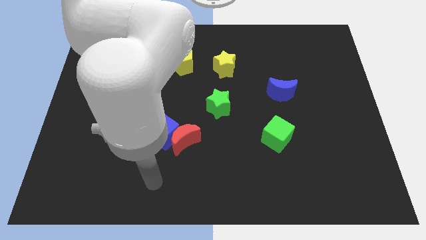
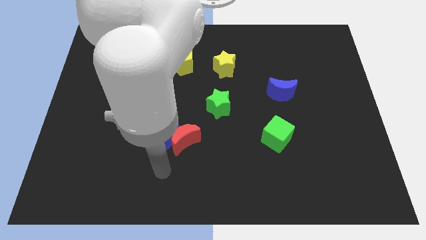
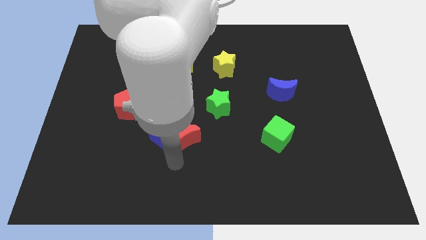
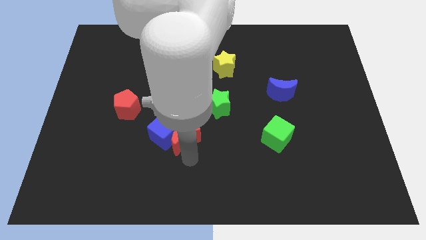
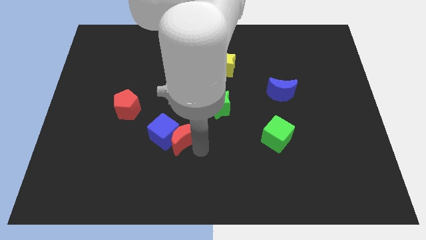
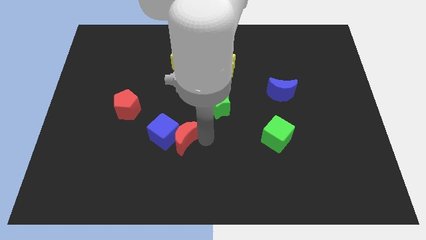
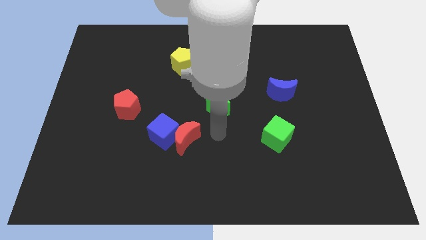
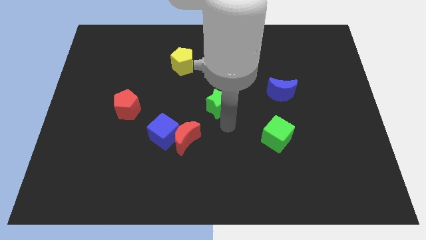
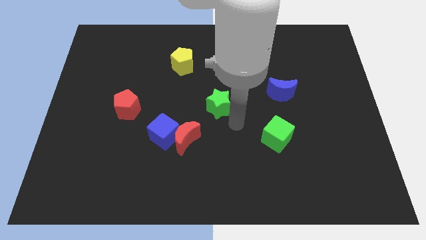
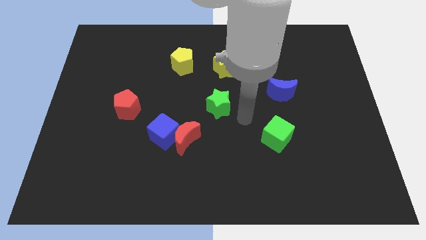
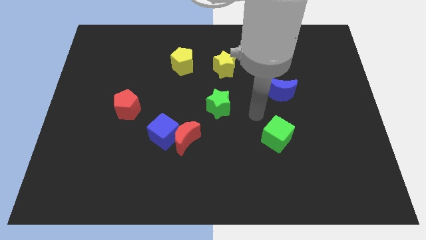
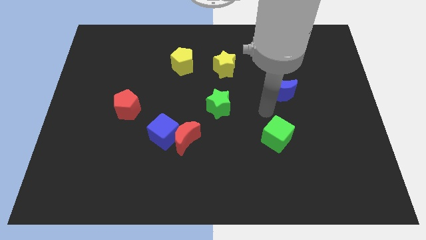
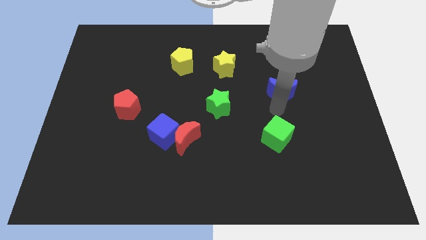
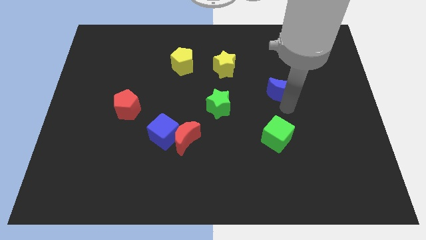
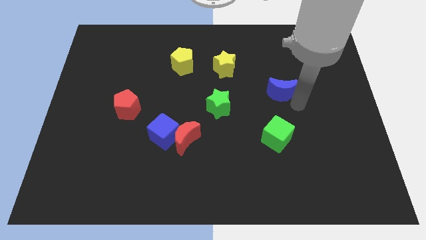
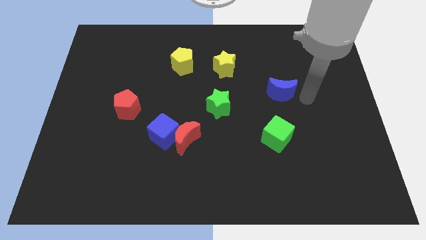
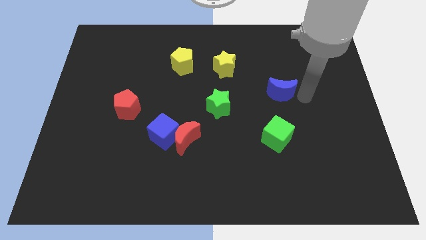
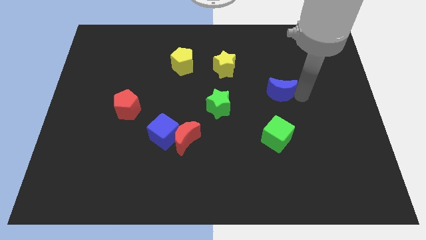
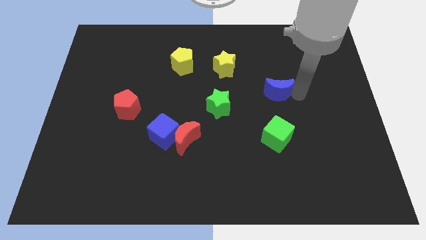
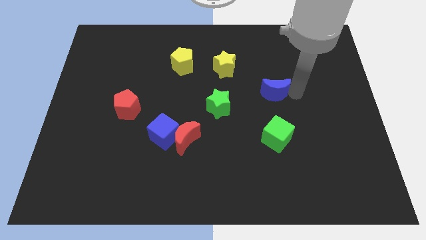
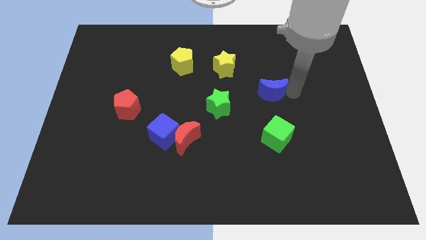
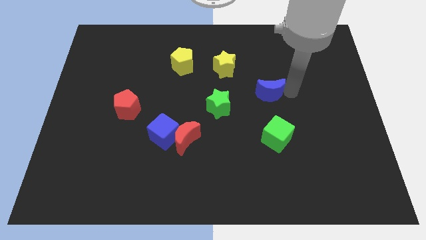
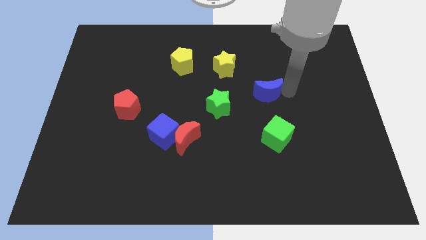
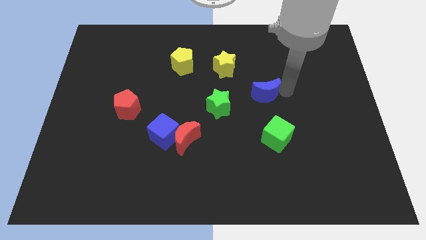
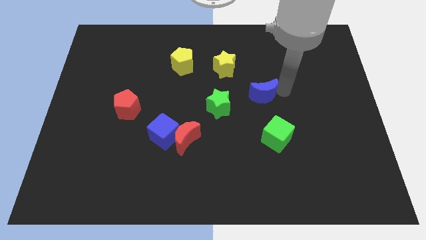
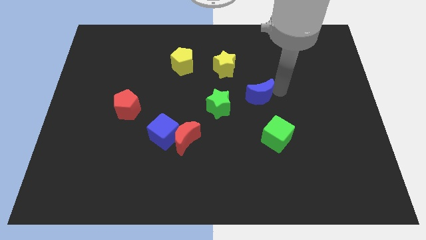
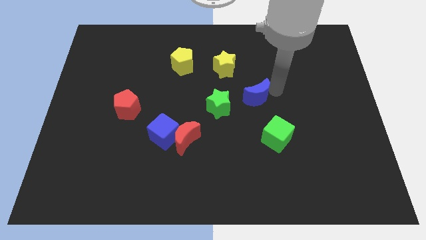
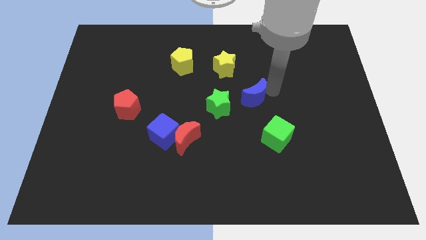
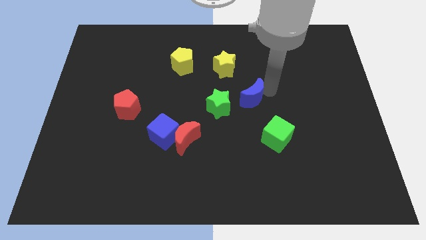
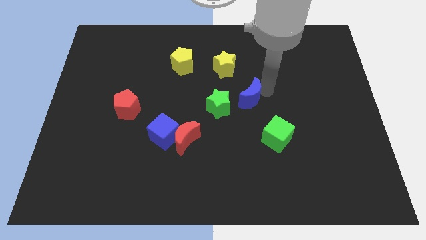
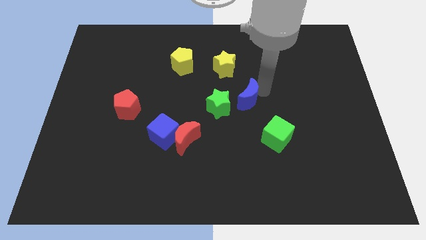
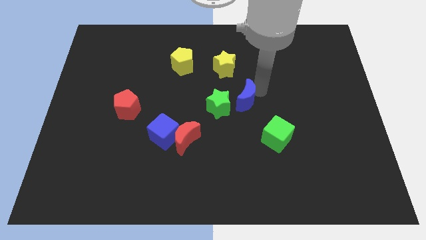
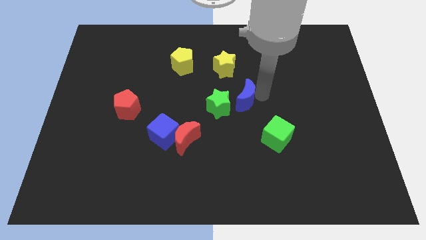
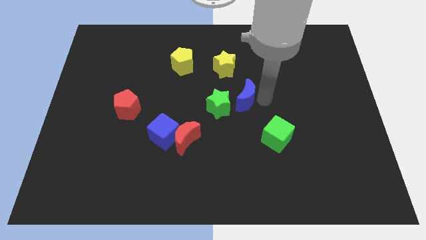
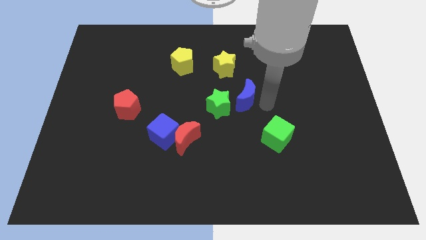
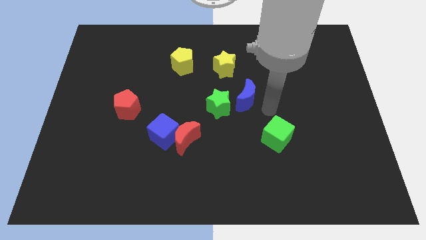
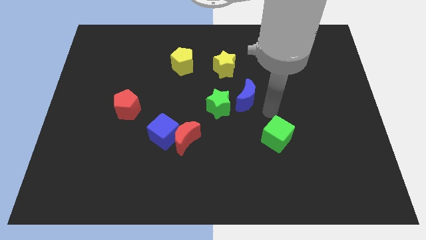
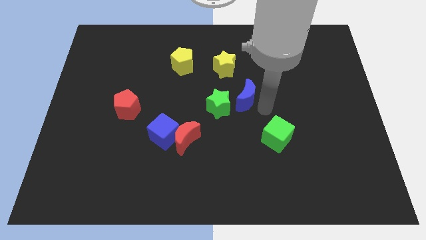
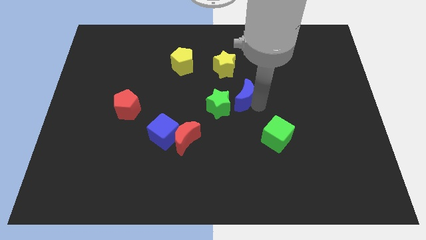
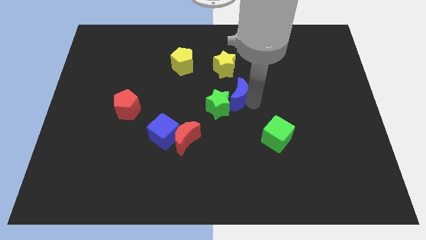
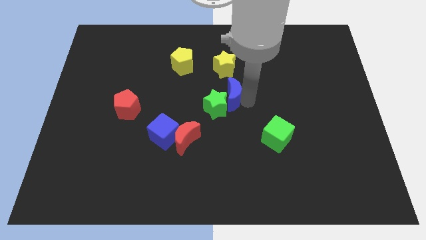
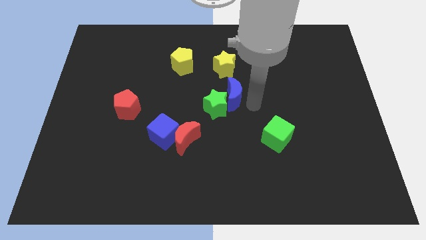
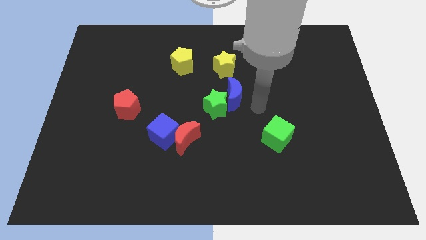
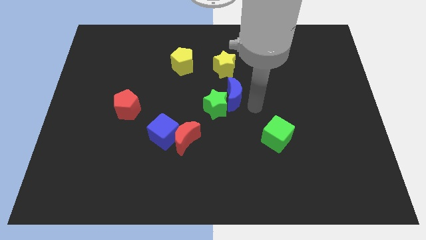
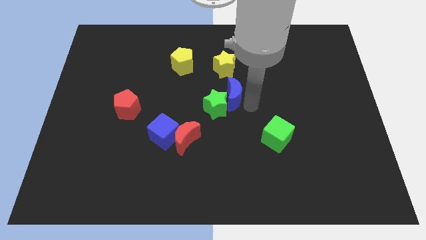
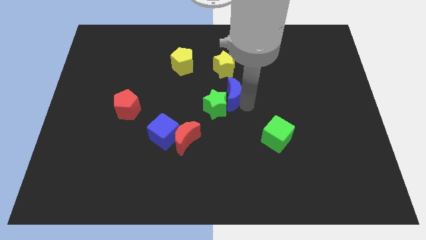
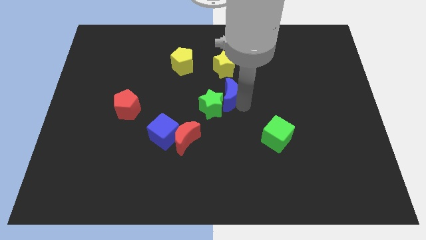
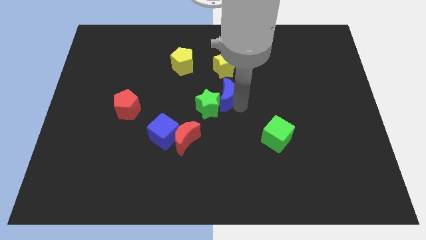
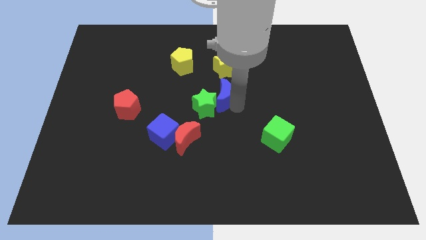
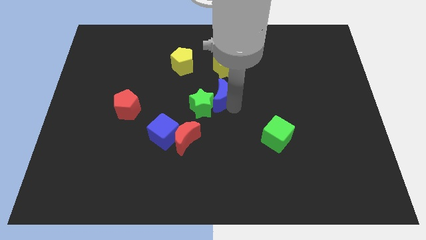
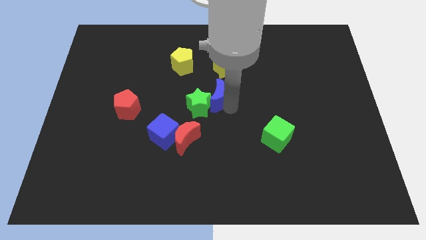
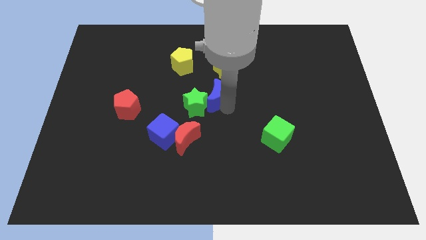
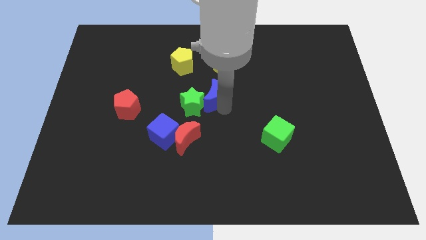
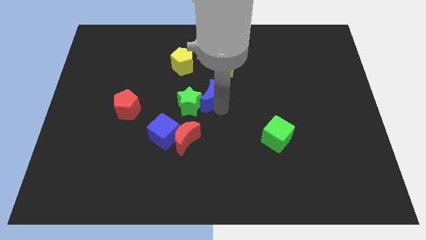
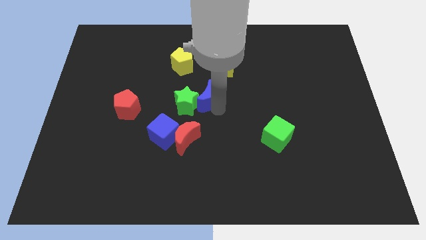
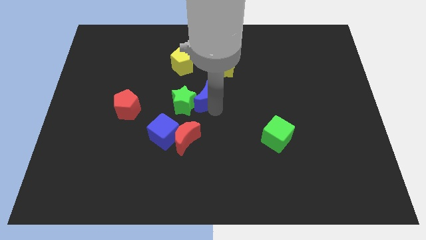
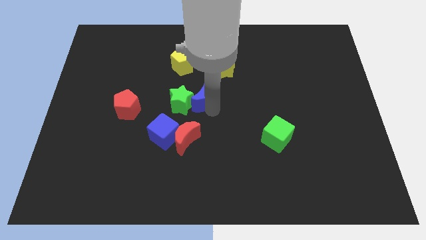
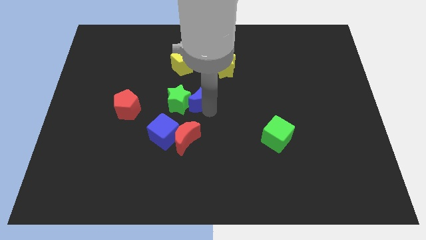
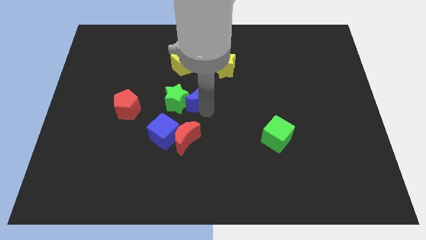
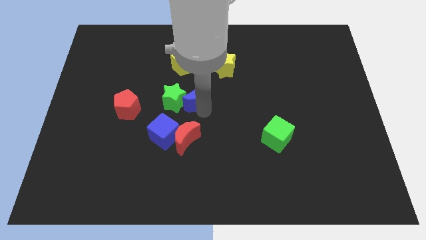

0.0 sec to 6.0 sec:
push the blue moon left

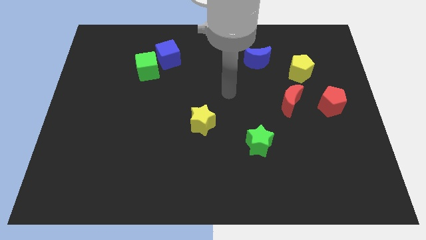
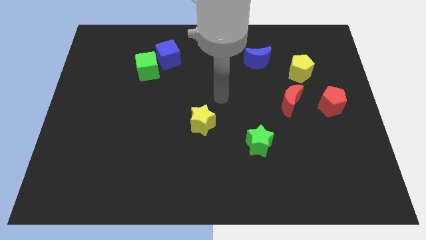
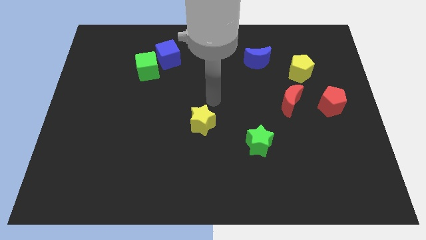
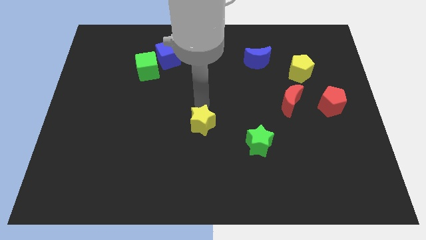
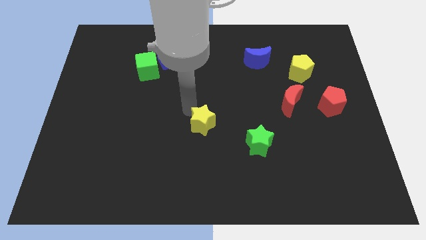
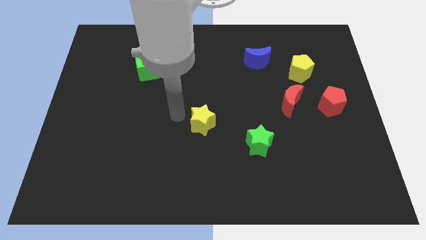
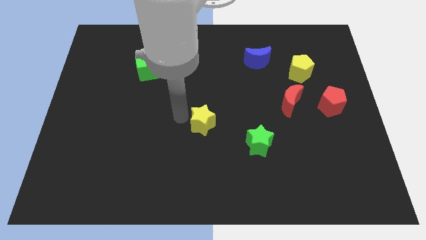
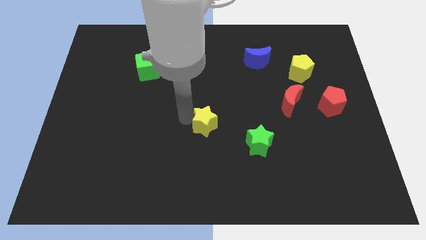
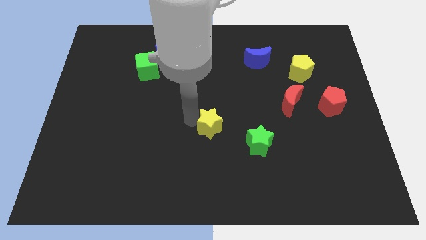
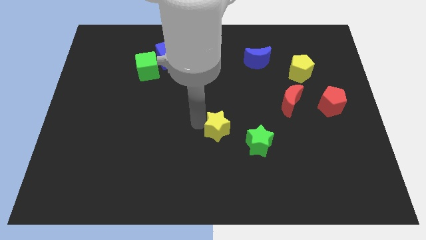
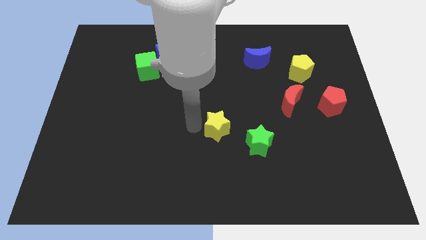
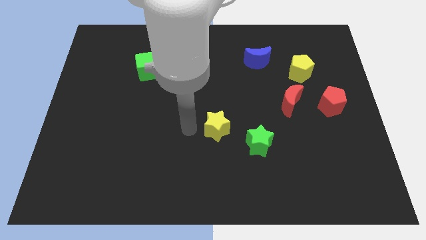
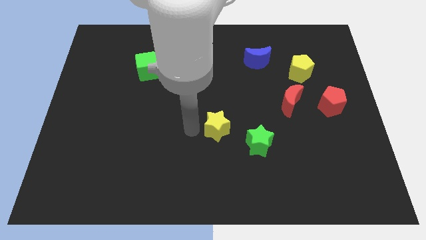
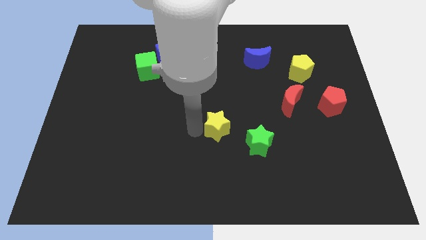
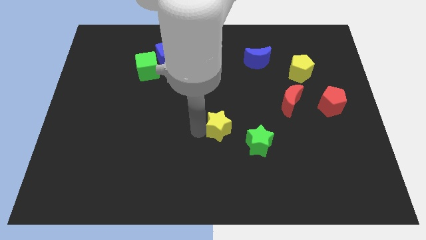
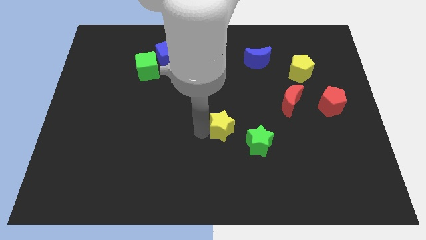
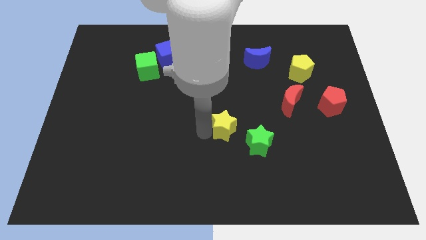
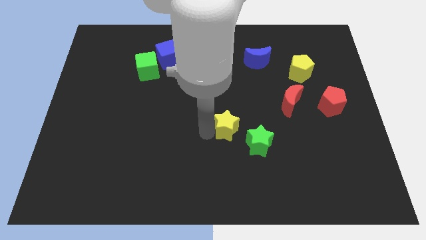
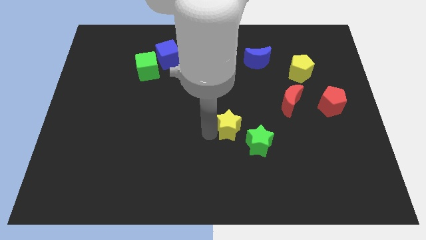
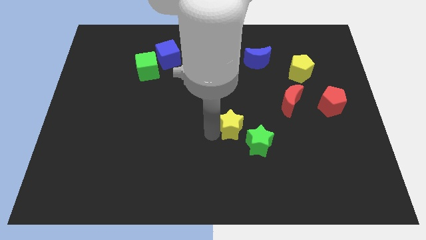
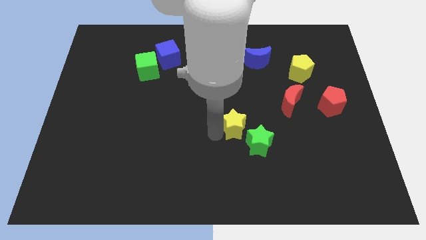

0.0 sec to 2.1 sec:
slightly slide the yellow star right
